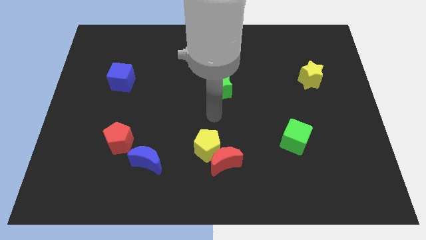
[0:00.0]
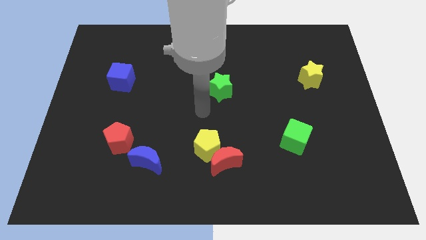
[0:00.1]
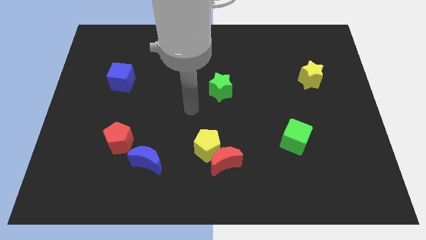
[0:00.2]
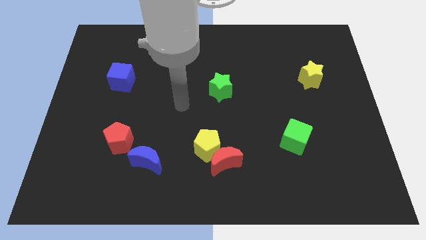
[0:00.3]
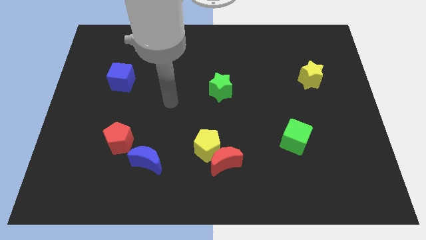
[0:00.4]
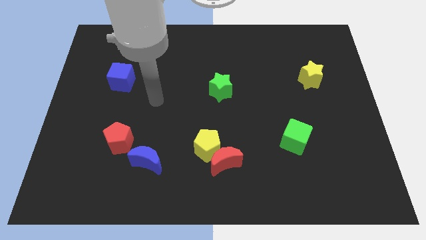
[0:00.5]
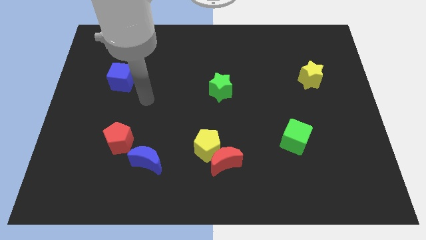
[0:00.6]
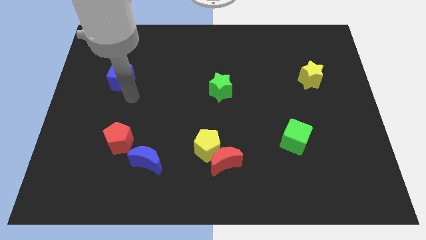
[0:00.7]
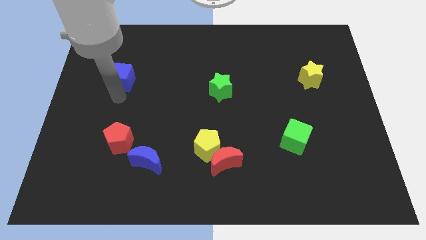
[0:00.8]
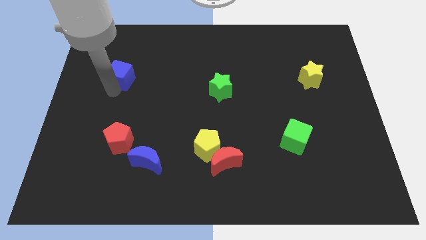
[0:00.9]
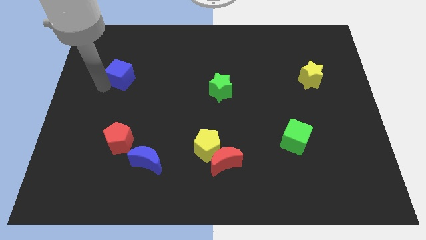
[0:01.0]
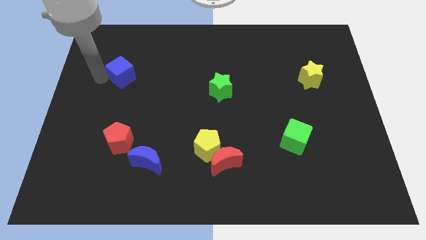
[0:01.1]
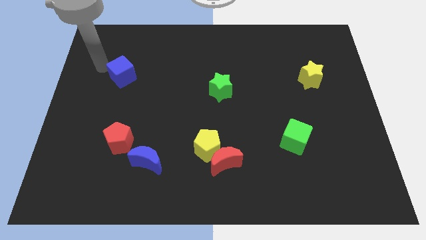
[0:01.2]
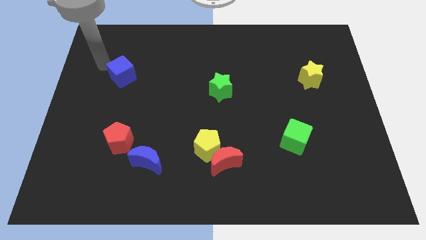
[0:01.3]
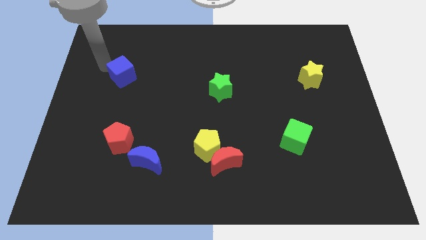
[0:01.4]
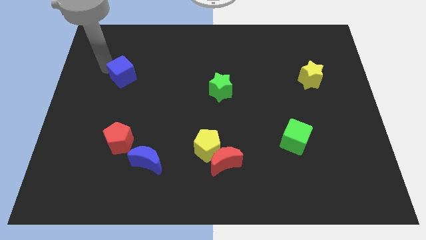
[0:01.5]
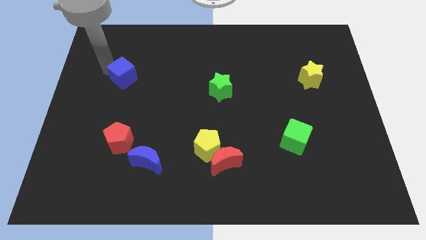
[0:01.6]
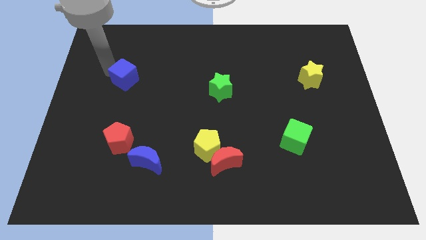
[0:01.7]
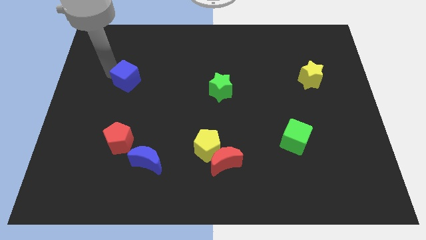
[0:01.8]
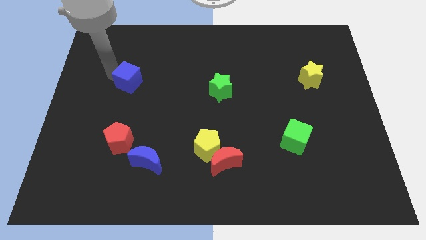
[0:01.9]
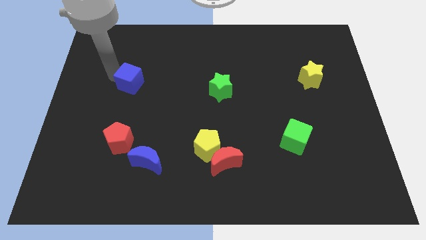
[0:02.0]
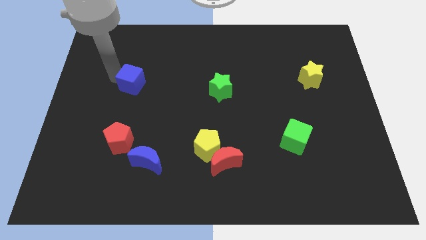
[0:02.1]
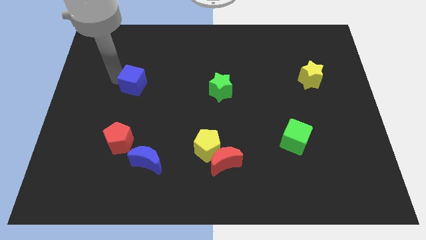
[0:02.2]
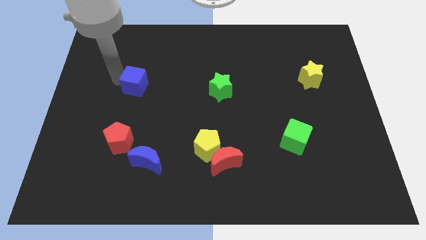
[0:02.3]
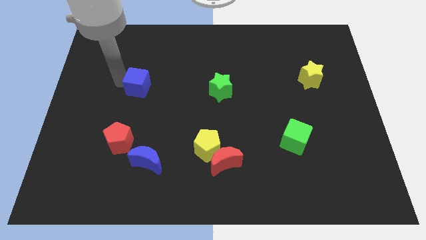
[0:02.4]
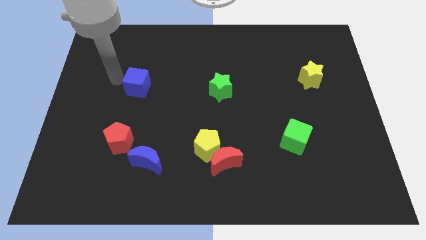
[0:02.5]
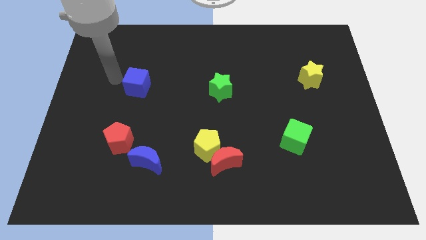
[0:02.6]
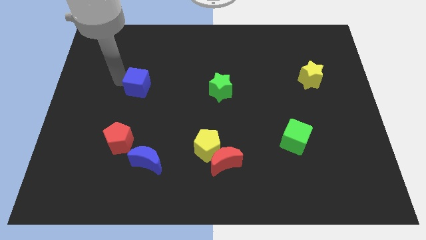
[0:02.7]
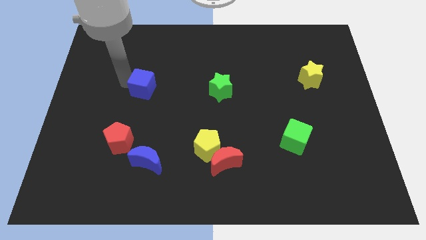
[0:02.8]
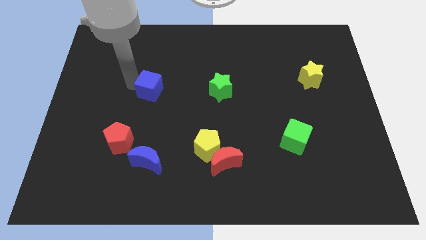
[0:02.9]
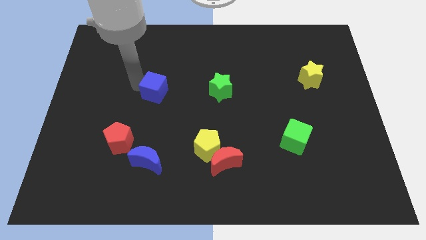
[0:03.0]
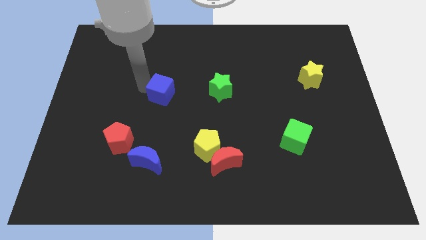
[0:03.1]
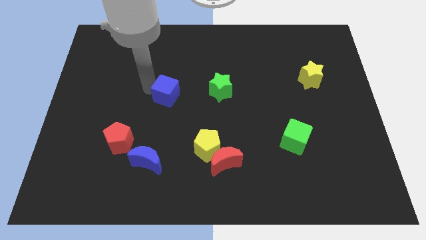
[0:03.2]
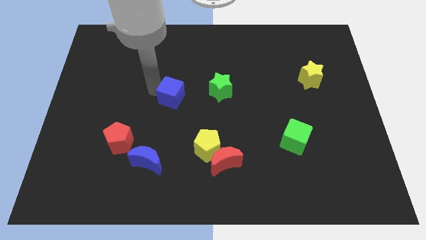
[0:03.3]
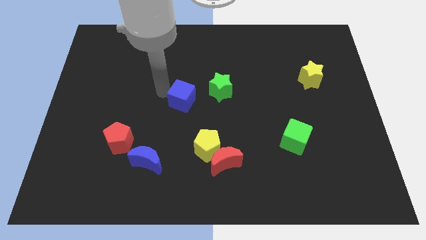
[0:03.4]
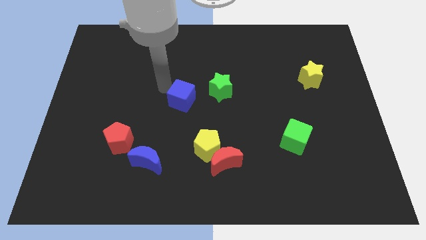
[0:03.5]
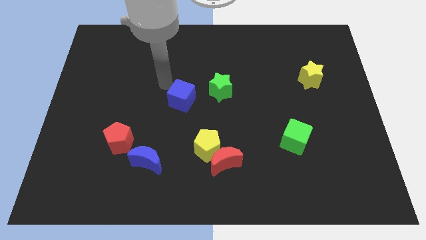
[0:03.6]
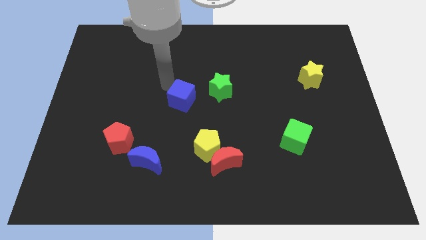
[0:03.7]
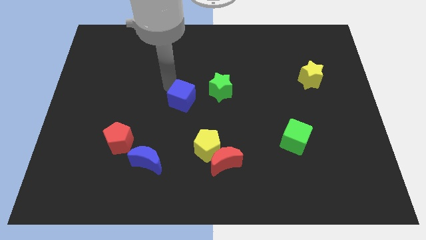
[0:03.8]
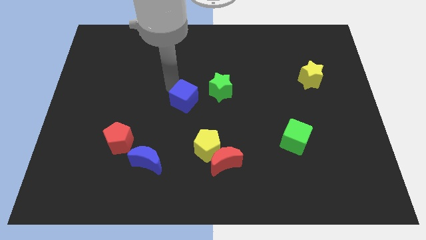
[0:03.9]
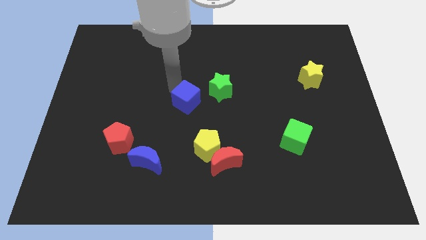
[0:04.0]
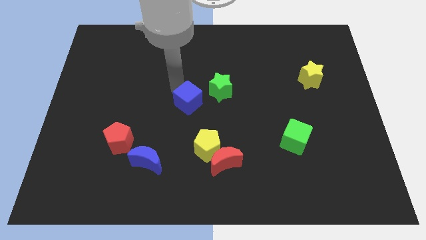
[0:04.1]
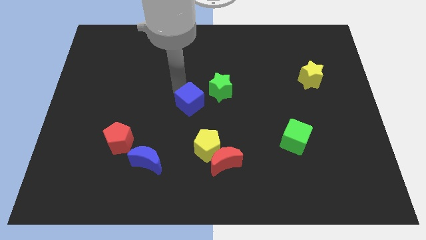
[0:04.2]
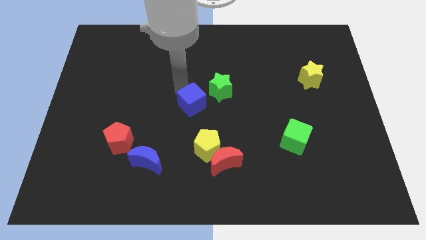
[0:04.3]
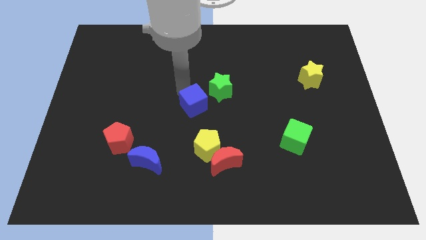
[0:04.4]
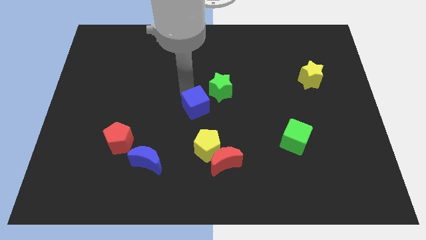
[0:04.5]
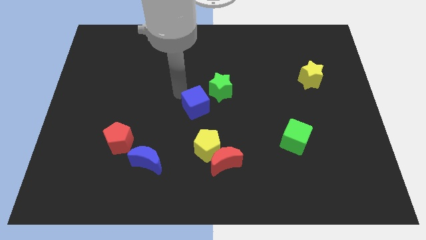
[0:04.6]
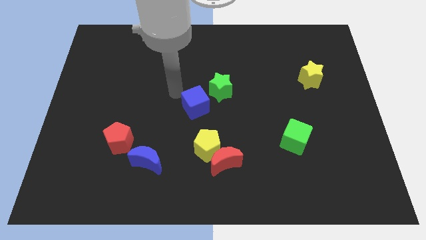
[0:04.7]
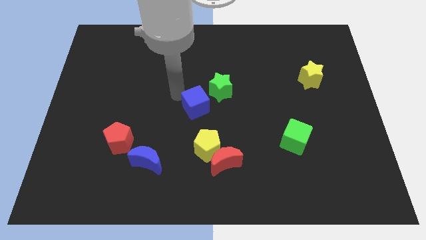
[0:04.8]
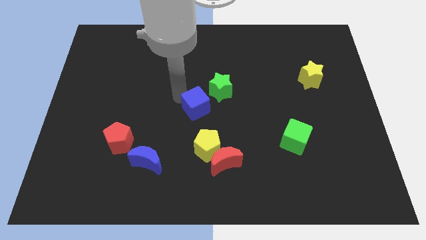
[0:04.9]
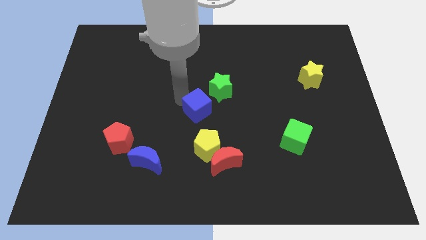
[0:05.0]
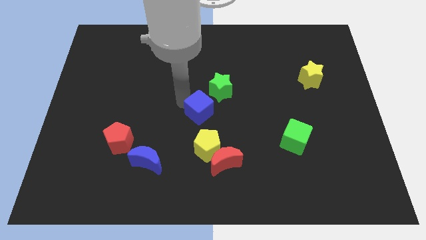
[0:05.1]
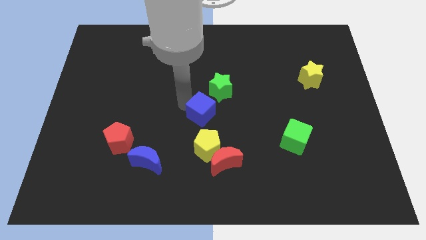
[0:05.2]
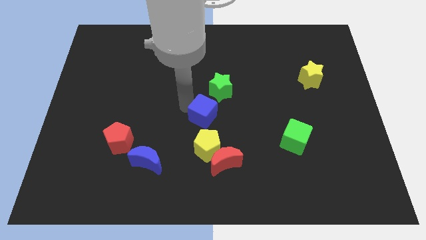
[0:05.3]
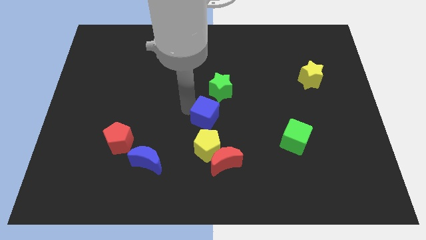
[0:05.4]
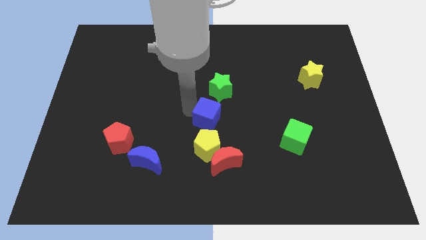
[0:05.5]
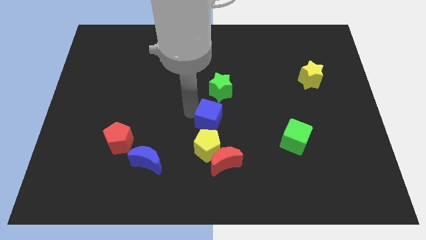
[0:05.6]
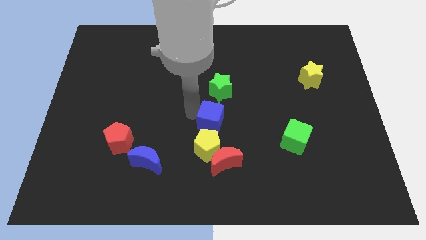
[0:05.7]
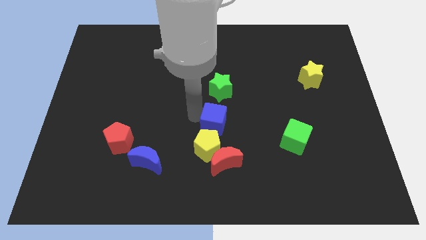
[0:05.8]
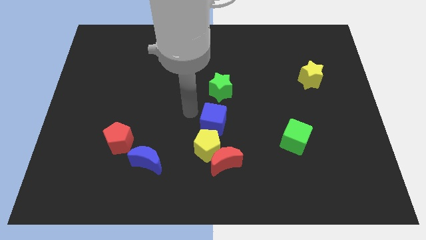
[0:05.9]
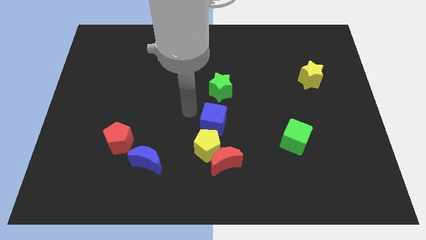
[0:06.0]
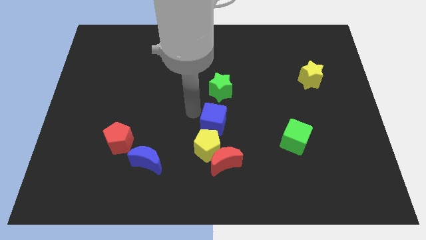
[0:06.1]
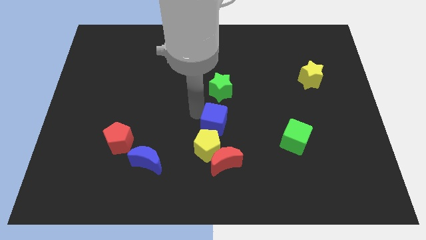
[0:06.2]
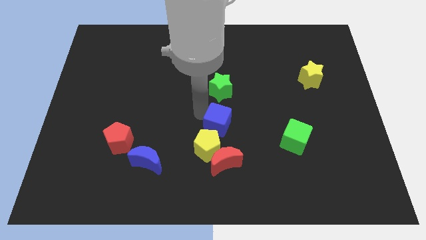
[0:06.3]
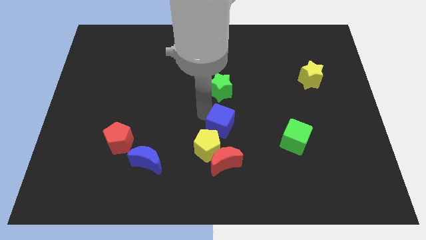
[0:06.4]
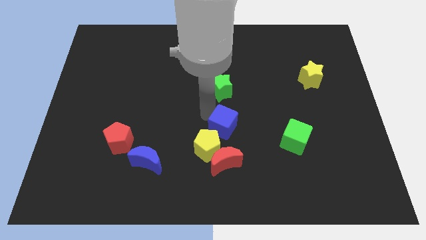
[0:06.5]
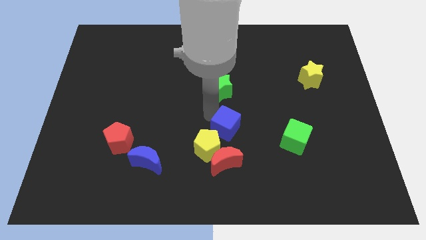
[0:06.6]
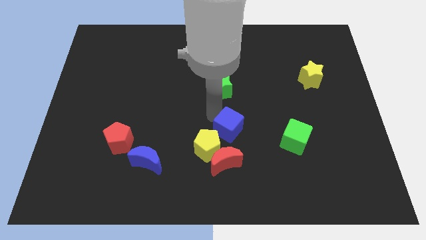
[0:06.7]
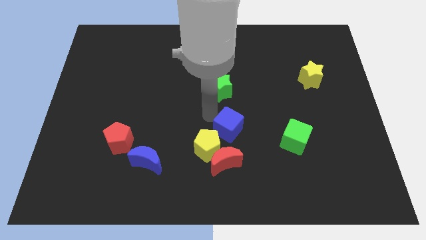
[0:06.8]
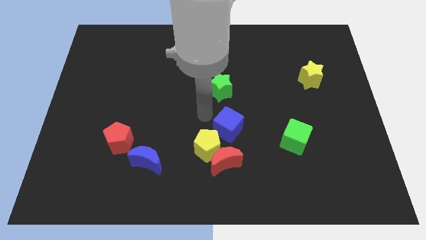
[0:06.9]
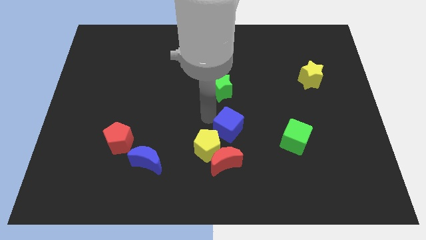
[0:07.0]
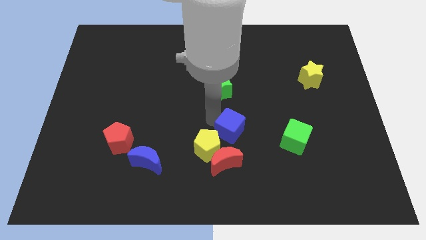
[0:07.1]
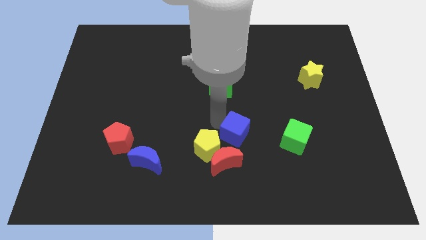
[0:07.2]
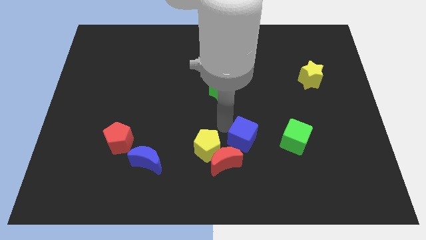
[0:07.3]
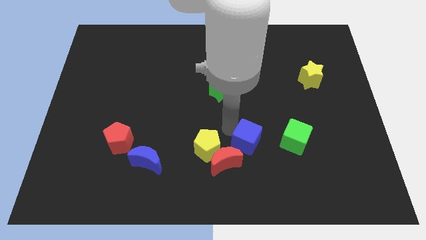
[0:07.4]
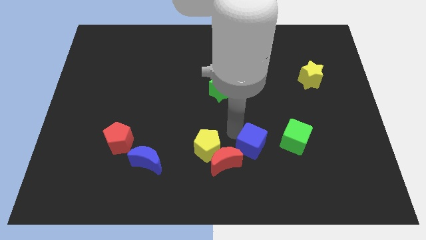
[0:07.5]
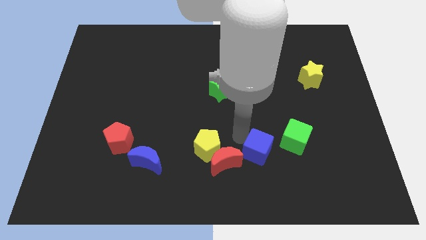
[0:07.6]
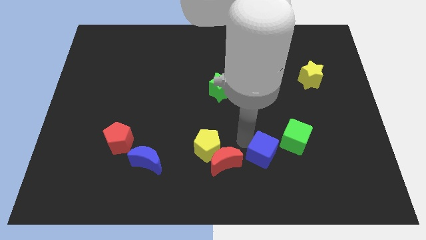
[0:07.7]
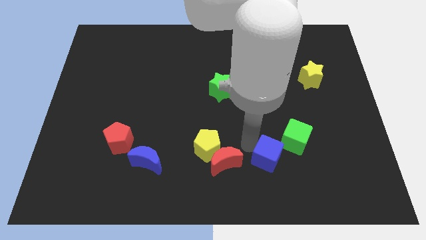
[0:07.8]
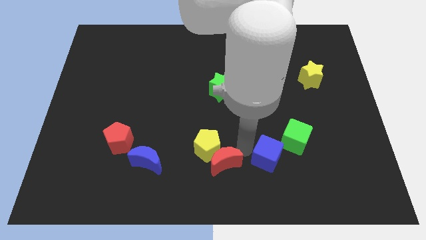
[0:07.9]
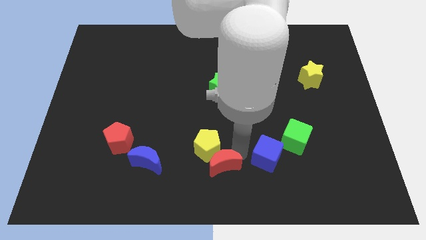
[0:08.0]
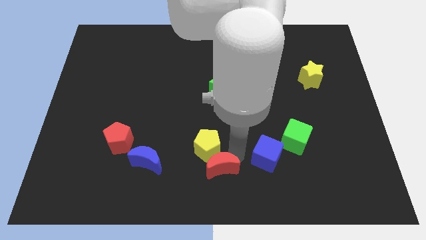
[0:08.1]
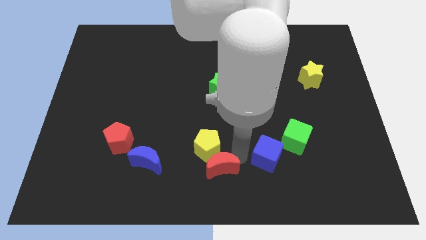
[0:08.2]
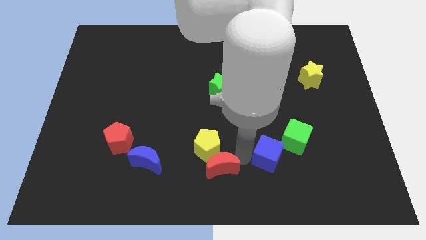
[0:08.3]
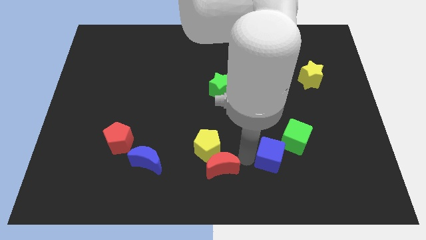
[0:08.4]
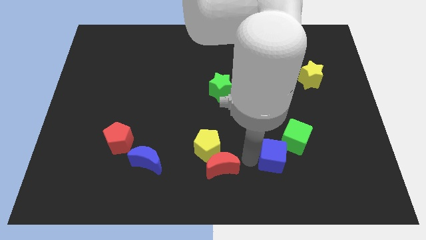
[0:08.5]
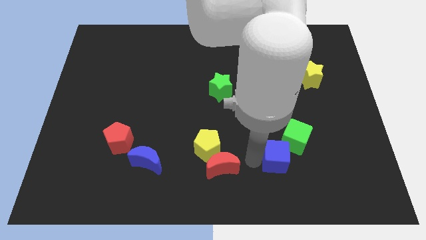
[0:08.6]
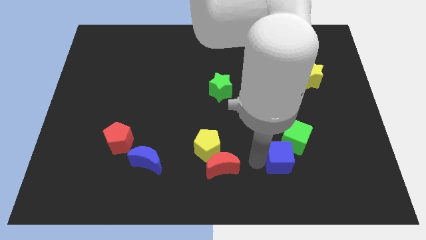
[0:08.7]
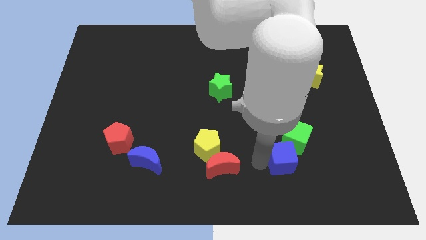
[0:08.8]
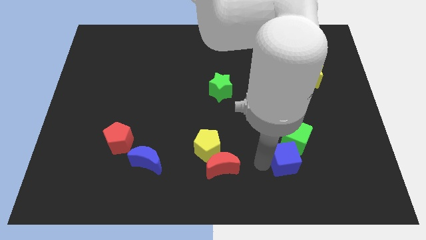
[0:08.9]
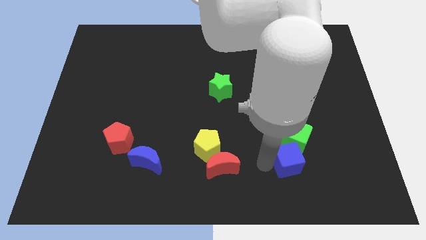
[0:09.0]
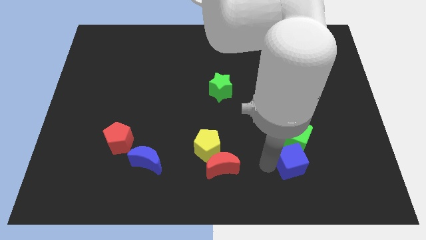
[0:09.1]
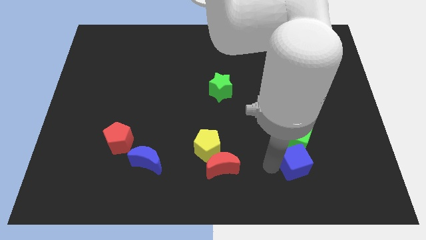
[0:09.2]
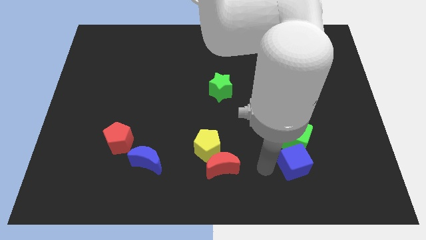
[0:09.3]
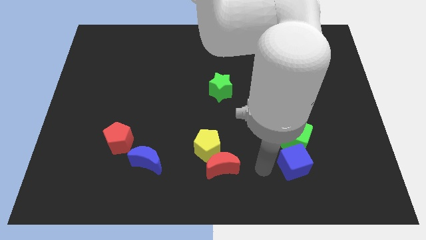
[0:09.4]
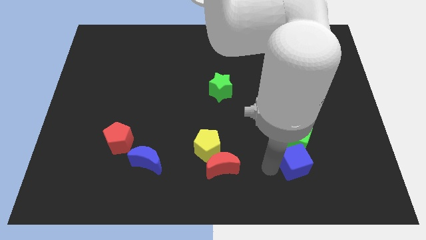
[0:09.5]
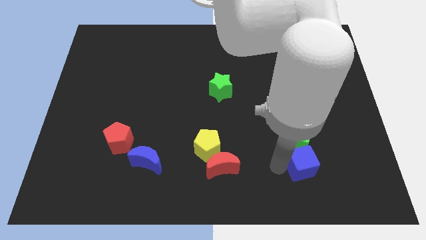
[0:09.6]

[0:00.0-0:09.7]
push the blue cube to the bottom right of the green cube
